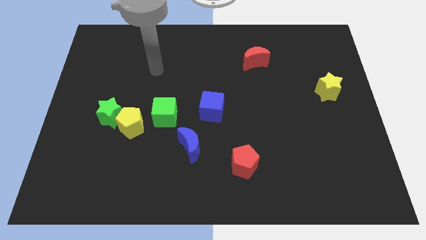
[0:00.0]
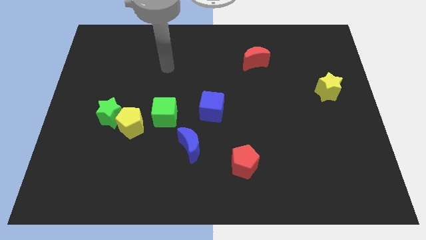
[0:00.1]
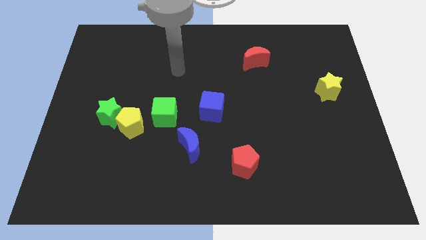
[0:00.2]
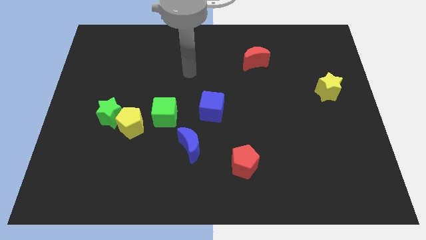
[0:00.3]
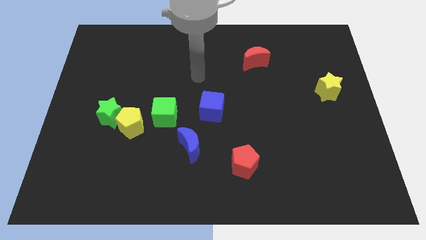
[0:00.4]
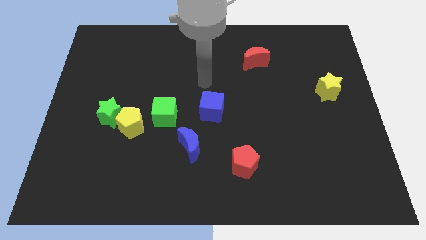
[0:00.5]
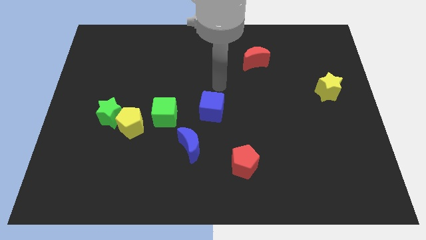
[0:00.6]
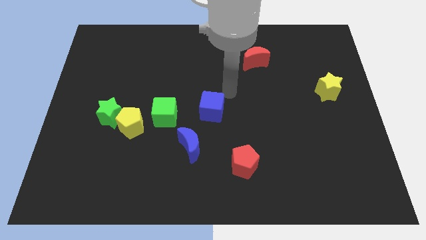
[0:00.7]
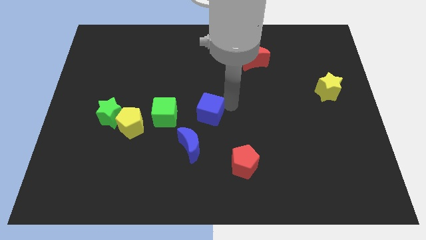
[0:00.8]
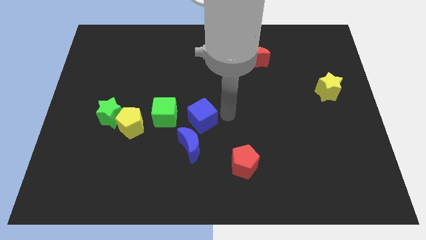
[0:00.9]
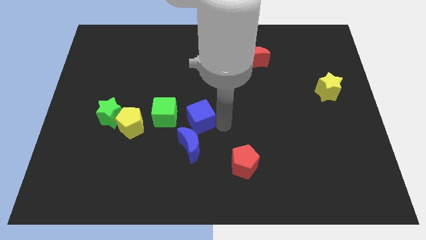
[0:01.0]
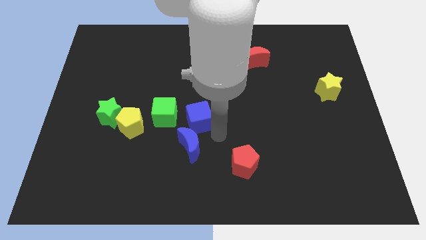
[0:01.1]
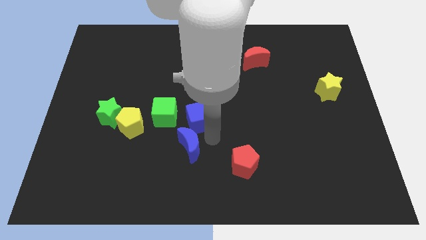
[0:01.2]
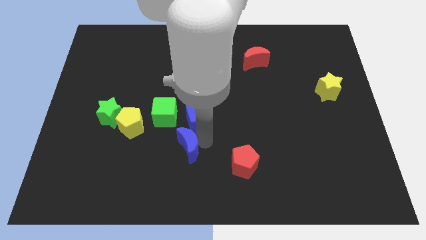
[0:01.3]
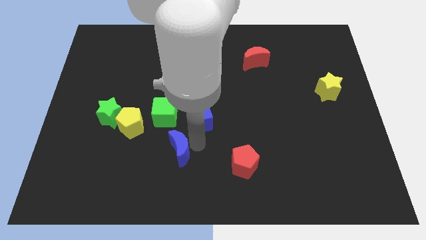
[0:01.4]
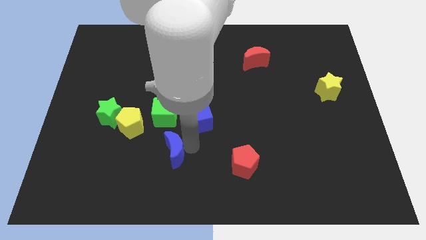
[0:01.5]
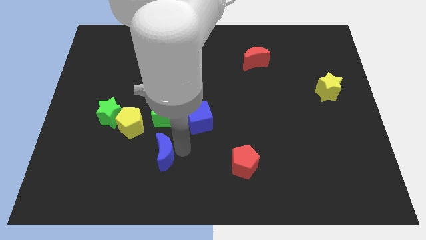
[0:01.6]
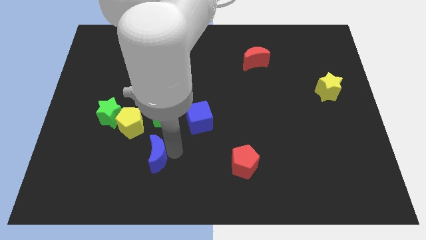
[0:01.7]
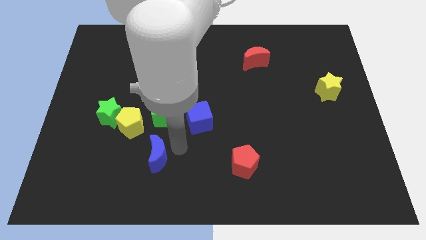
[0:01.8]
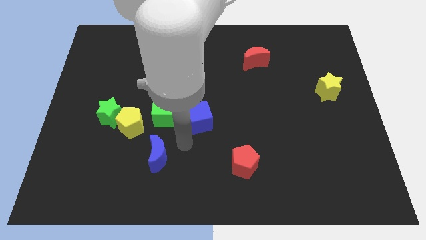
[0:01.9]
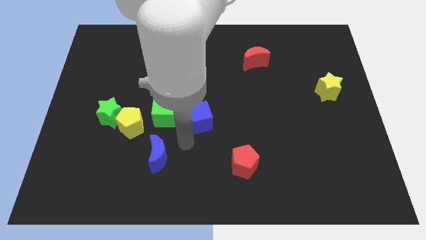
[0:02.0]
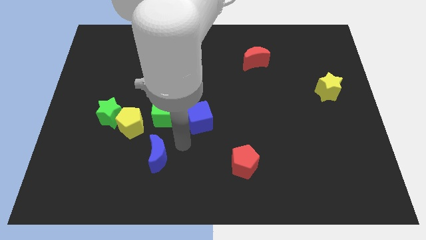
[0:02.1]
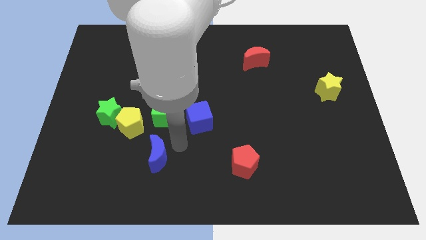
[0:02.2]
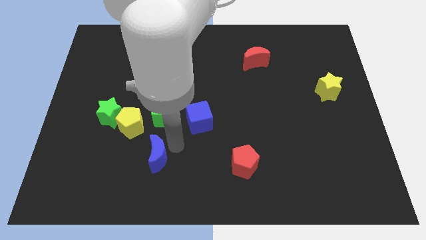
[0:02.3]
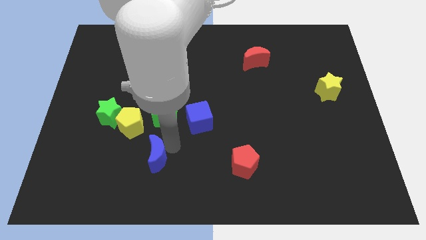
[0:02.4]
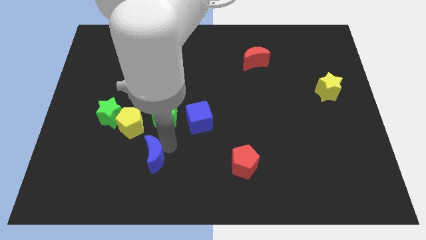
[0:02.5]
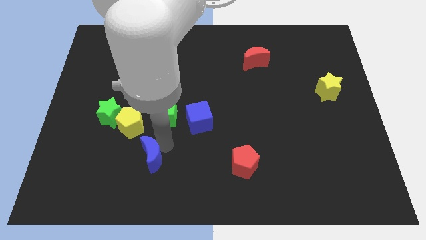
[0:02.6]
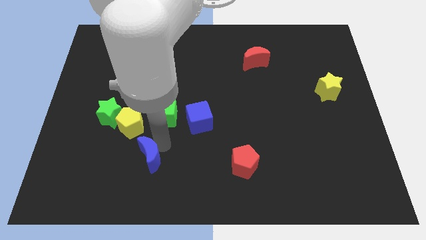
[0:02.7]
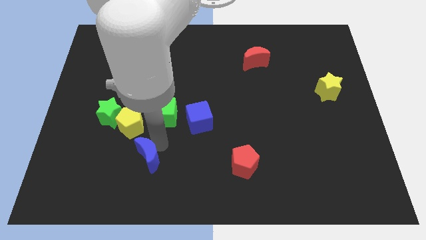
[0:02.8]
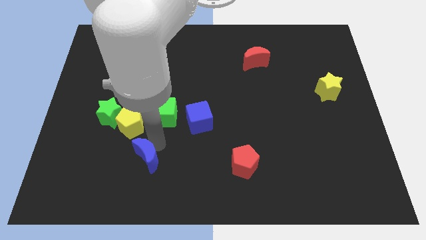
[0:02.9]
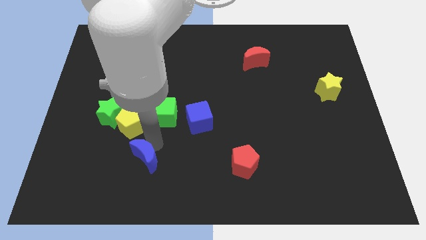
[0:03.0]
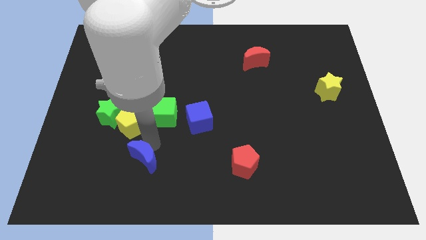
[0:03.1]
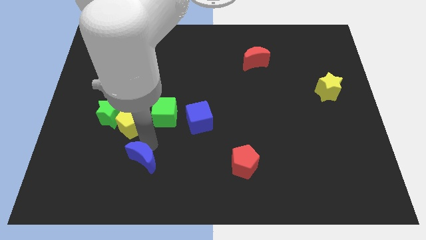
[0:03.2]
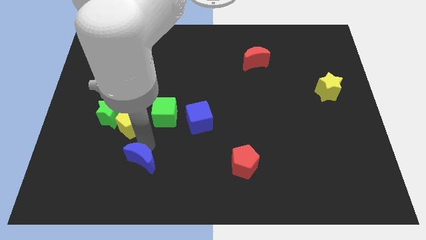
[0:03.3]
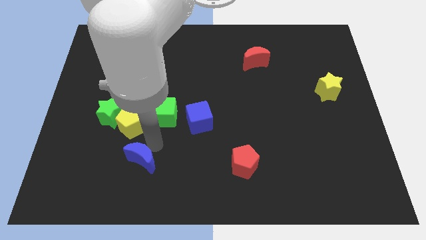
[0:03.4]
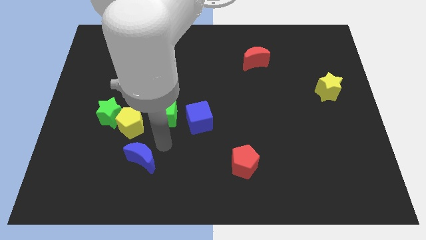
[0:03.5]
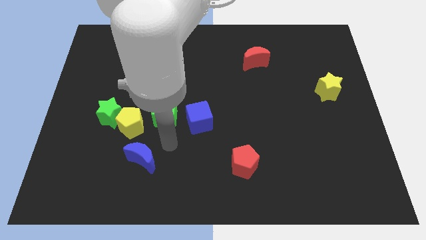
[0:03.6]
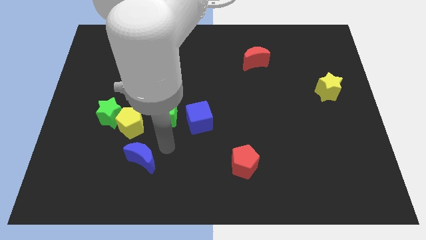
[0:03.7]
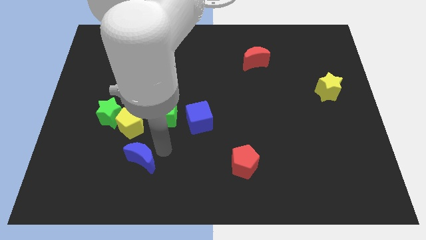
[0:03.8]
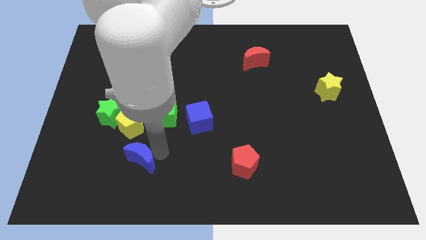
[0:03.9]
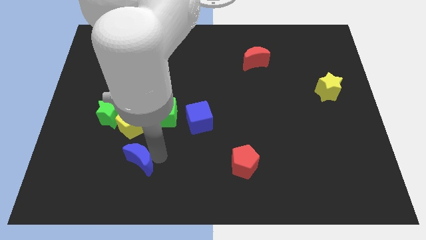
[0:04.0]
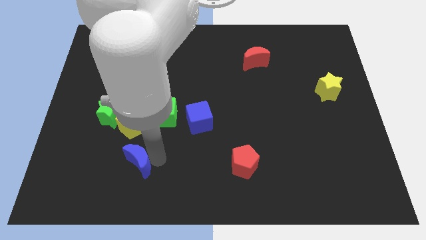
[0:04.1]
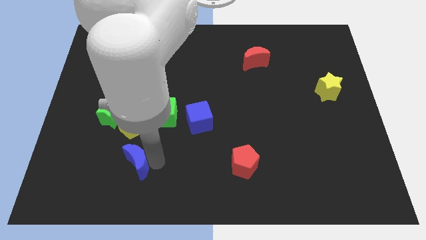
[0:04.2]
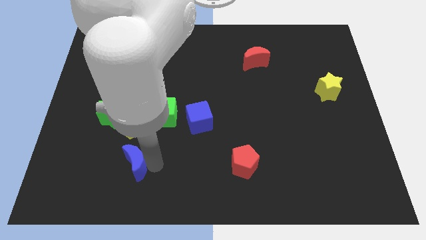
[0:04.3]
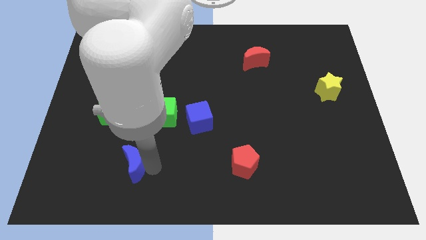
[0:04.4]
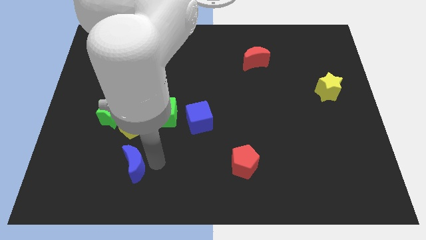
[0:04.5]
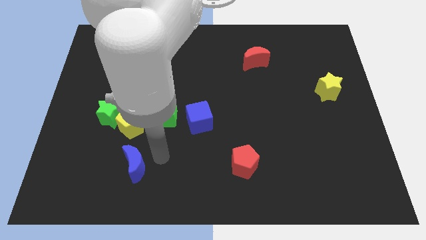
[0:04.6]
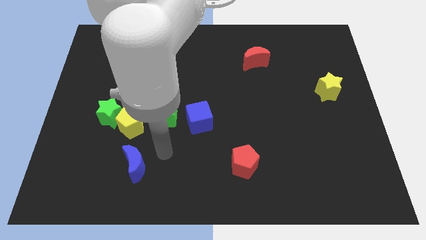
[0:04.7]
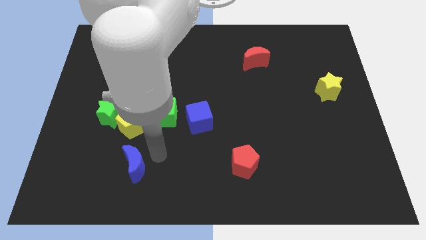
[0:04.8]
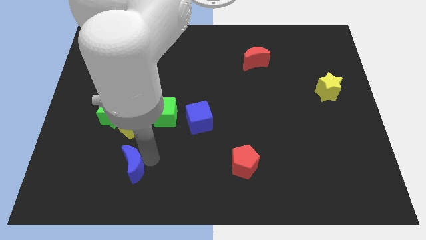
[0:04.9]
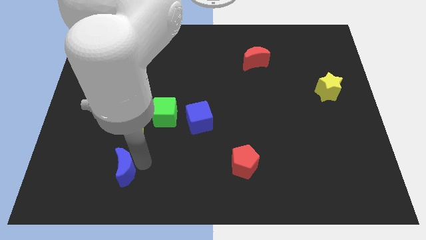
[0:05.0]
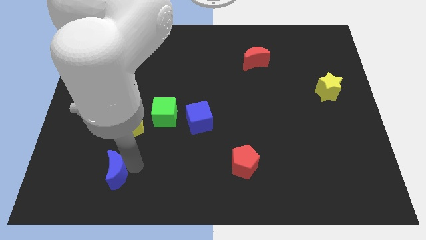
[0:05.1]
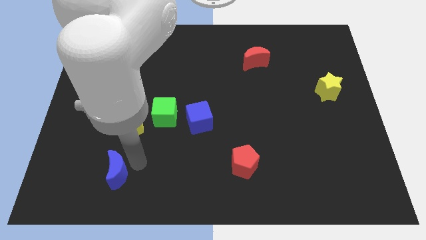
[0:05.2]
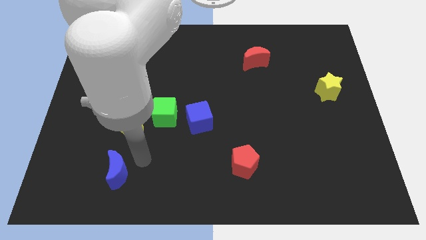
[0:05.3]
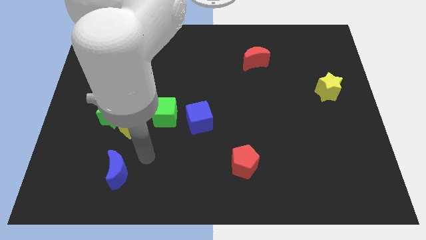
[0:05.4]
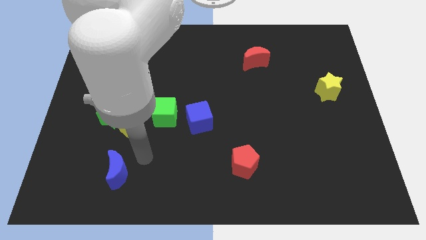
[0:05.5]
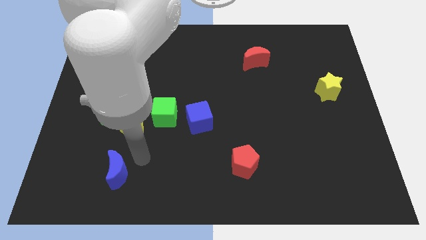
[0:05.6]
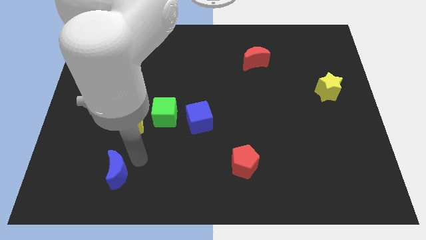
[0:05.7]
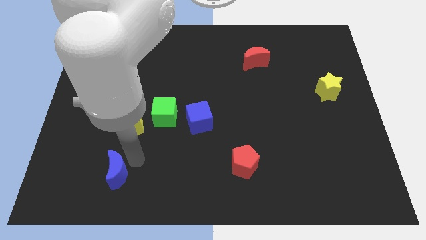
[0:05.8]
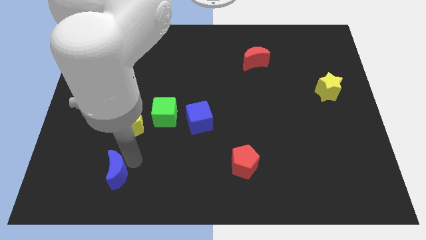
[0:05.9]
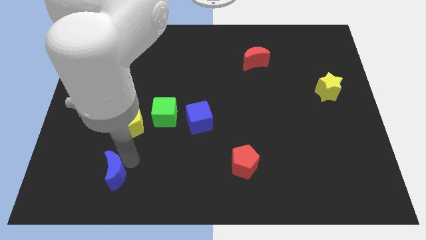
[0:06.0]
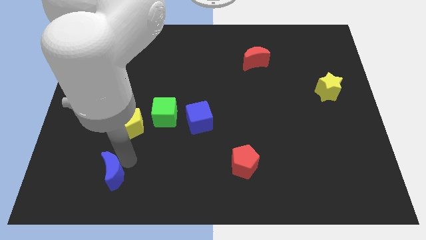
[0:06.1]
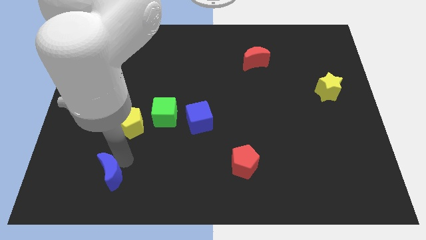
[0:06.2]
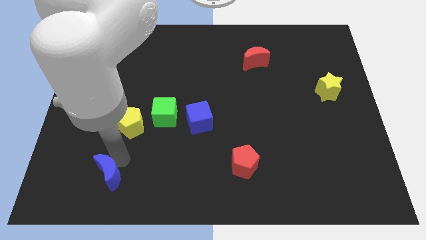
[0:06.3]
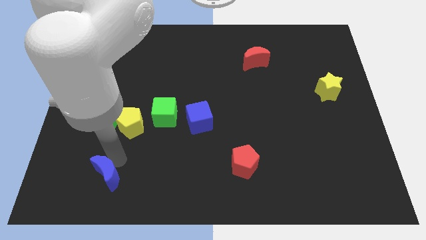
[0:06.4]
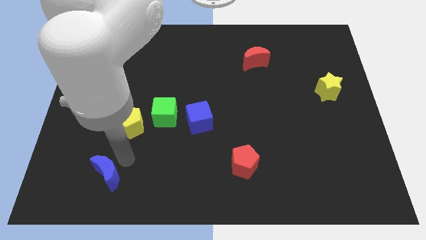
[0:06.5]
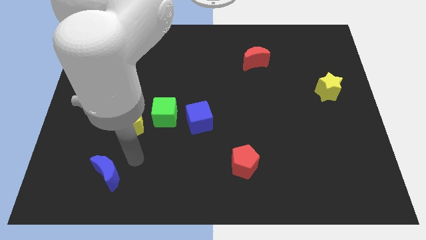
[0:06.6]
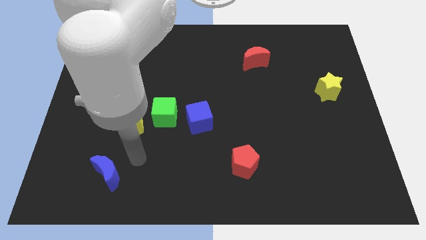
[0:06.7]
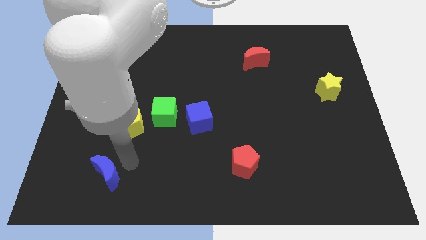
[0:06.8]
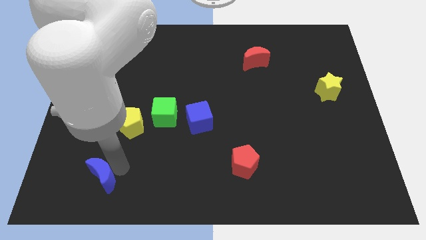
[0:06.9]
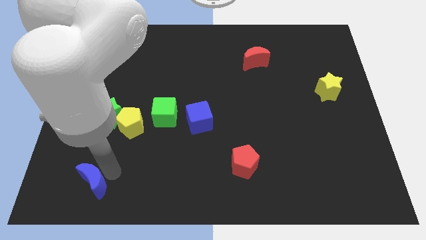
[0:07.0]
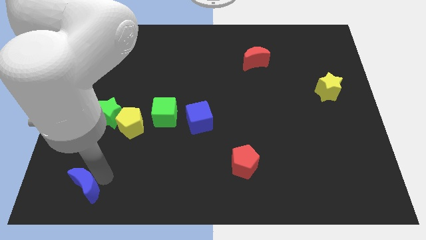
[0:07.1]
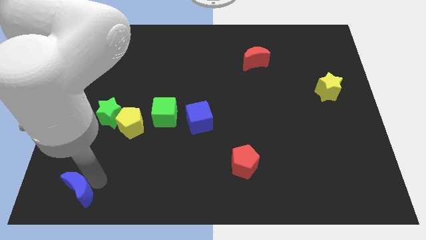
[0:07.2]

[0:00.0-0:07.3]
slide the blue moon to the bottom left
